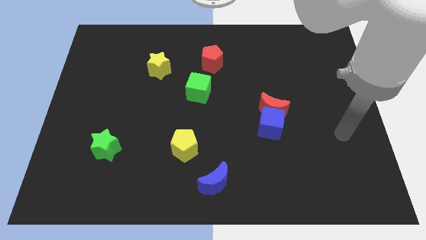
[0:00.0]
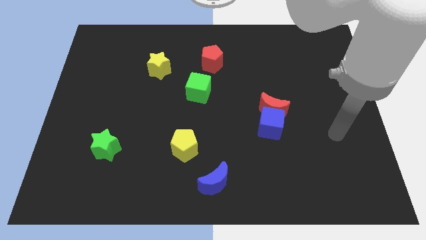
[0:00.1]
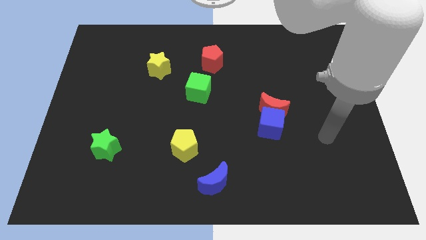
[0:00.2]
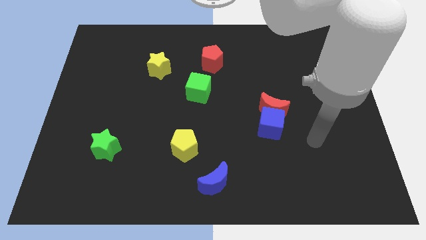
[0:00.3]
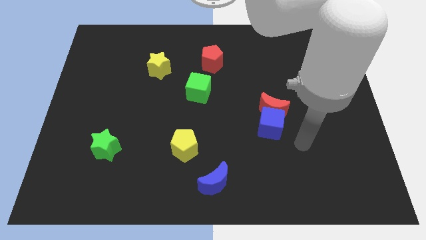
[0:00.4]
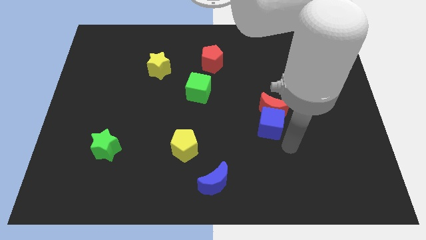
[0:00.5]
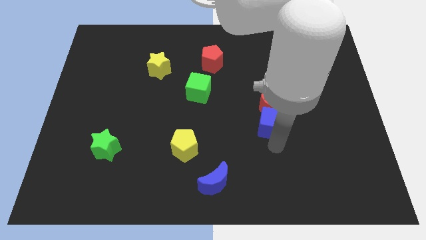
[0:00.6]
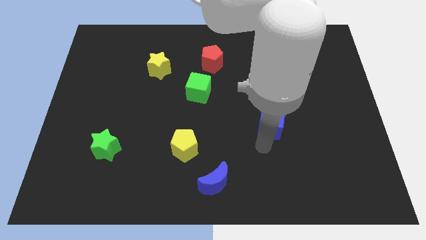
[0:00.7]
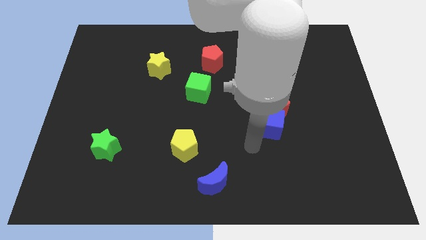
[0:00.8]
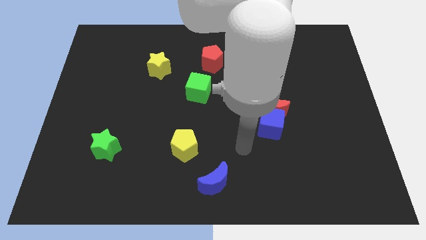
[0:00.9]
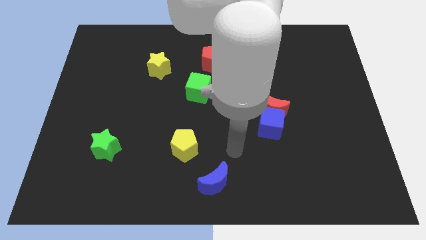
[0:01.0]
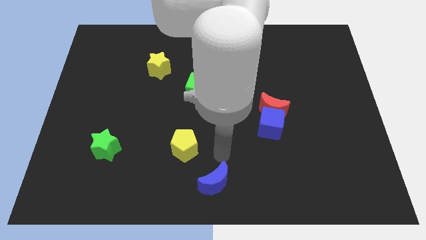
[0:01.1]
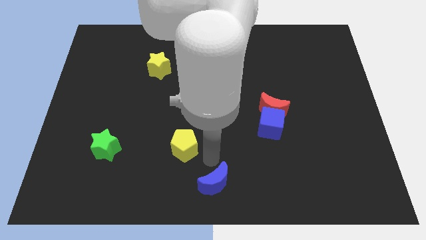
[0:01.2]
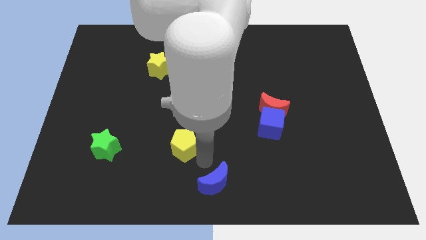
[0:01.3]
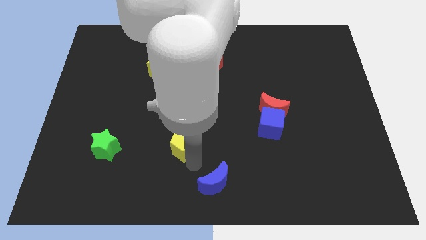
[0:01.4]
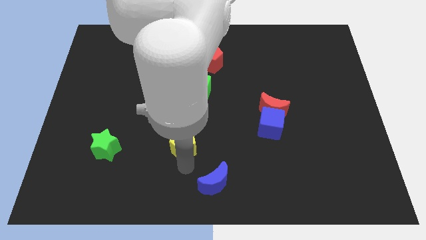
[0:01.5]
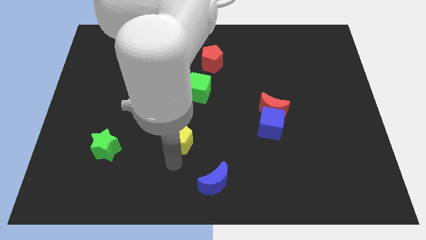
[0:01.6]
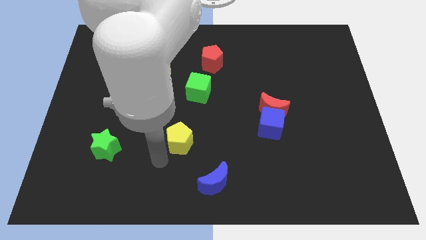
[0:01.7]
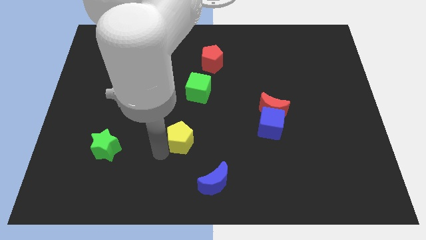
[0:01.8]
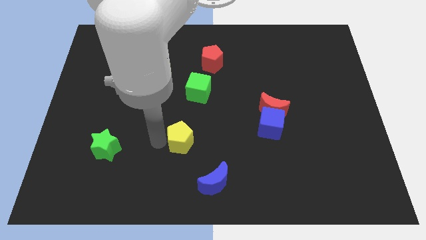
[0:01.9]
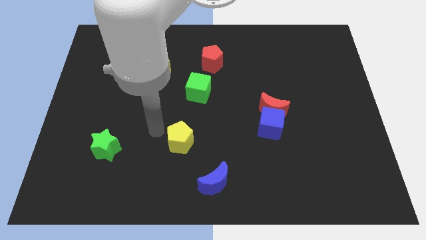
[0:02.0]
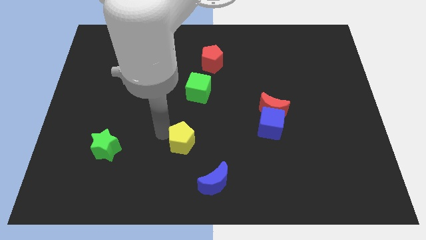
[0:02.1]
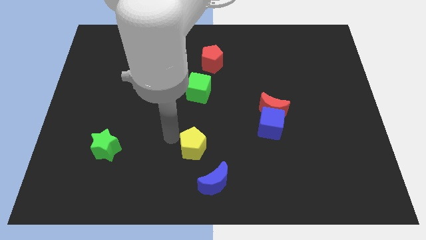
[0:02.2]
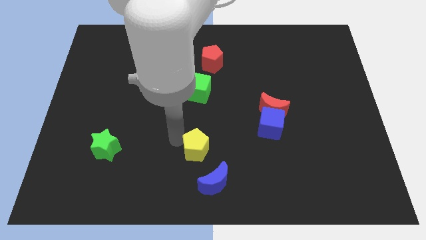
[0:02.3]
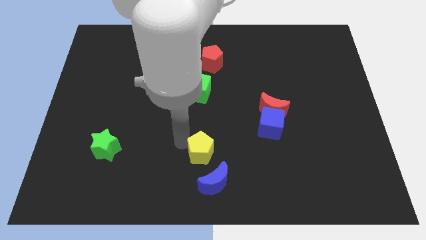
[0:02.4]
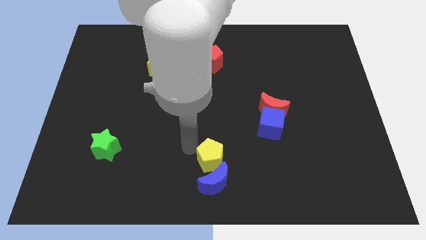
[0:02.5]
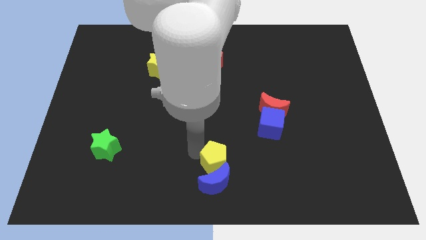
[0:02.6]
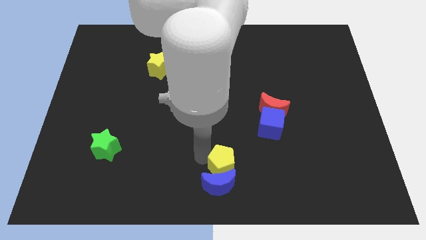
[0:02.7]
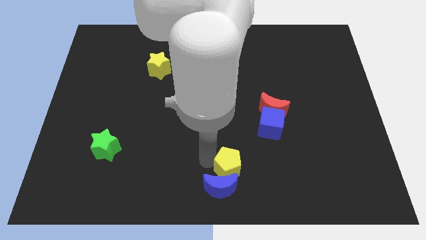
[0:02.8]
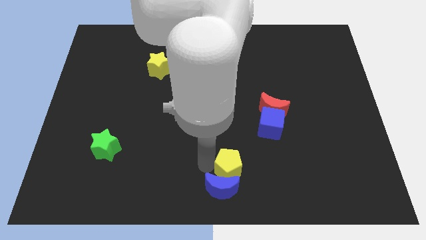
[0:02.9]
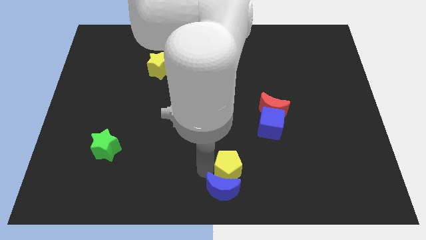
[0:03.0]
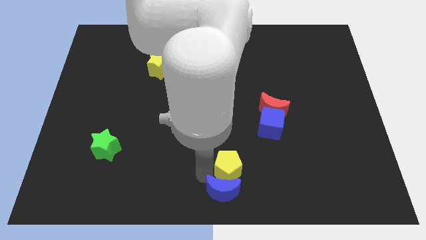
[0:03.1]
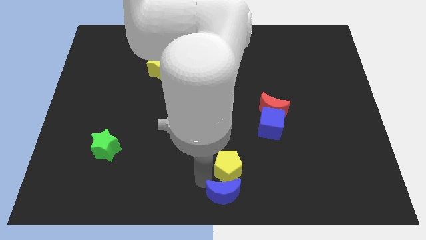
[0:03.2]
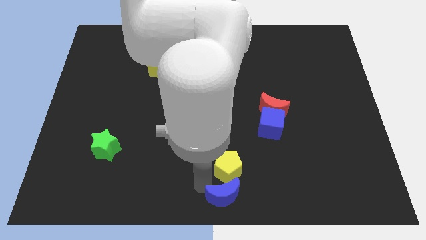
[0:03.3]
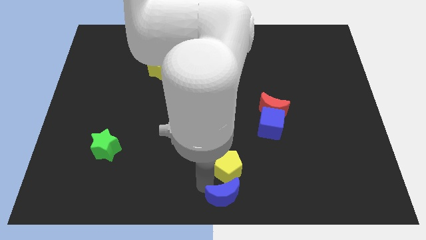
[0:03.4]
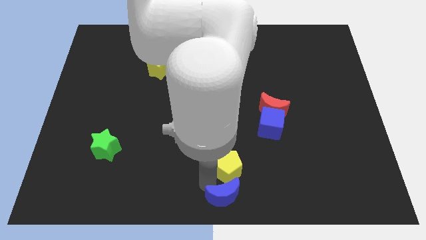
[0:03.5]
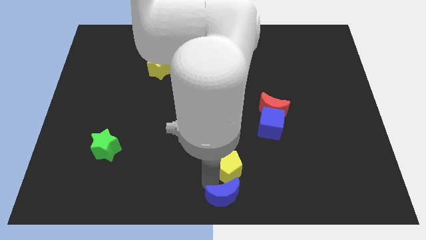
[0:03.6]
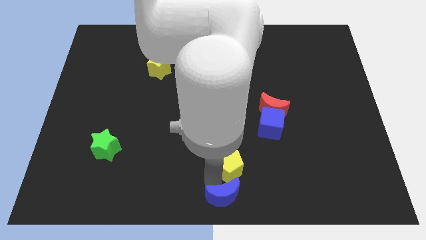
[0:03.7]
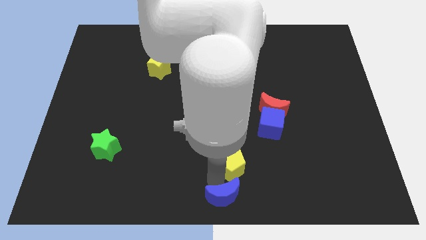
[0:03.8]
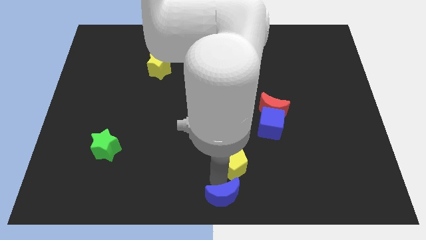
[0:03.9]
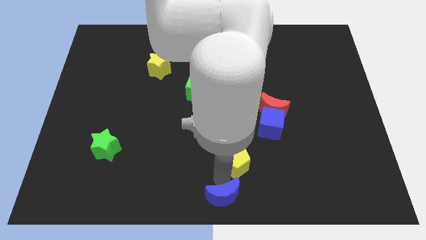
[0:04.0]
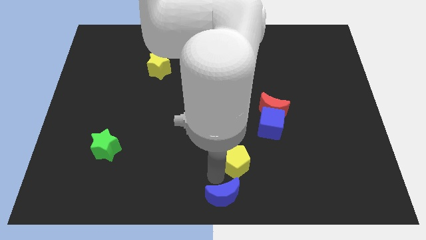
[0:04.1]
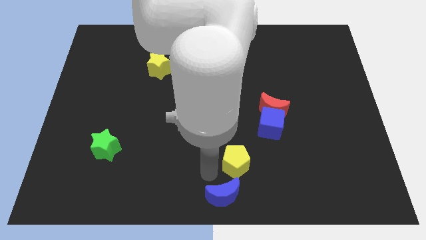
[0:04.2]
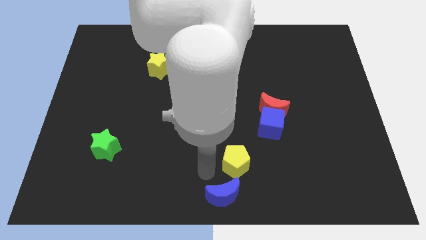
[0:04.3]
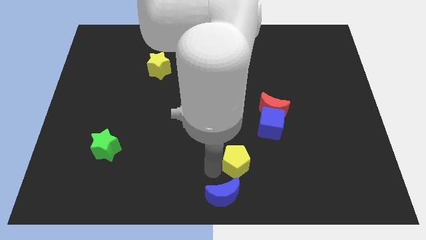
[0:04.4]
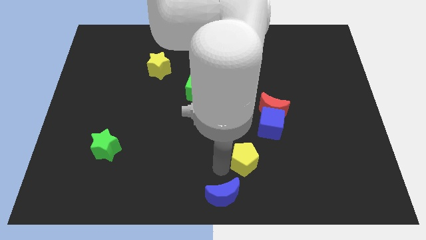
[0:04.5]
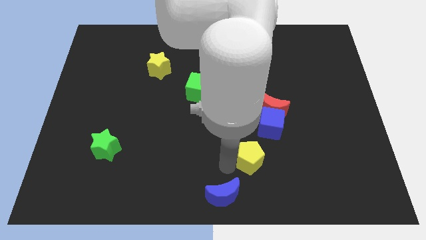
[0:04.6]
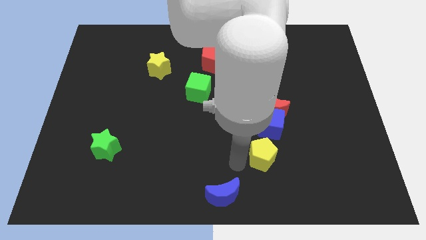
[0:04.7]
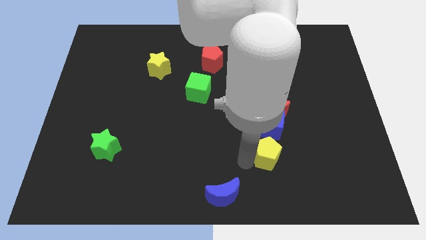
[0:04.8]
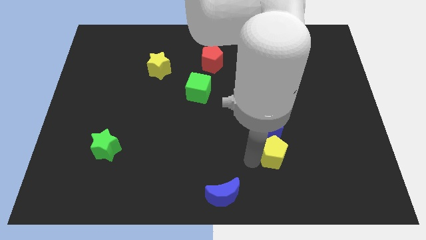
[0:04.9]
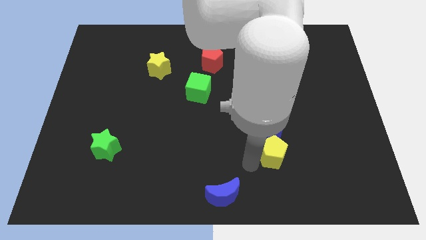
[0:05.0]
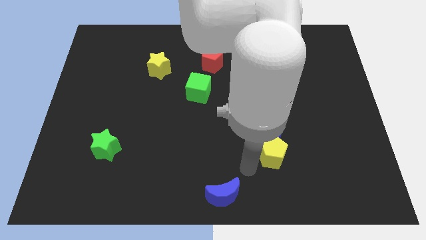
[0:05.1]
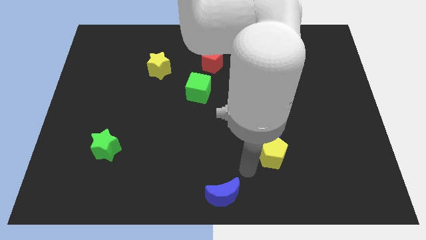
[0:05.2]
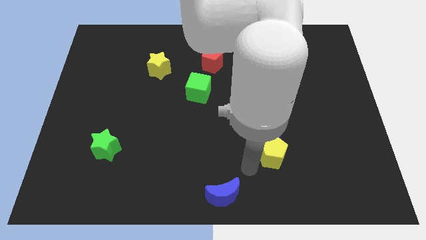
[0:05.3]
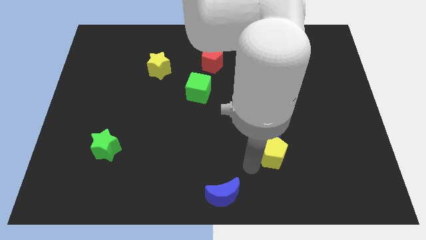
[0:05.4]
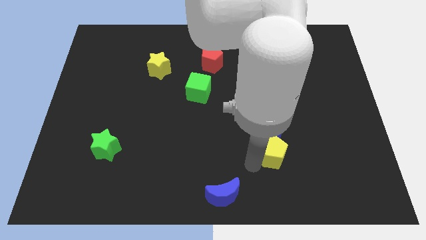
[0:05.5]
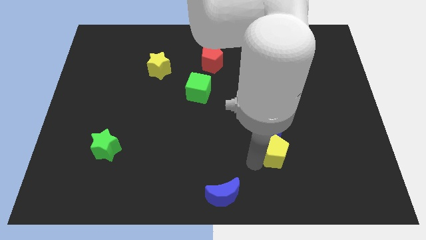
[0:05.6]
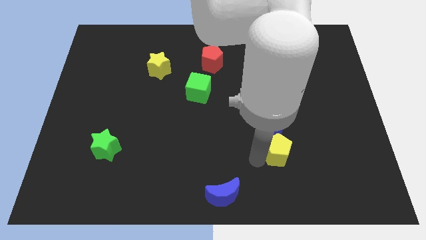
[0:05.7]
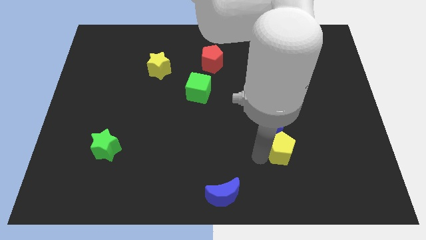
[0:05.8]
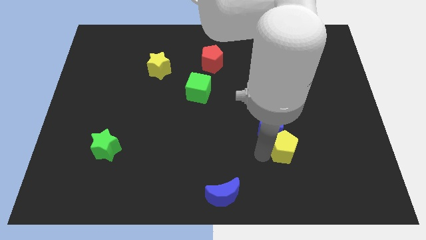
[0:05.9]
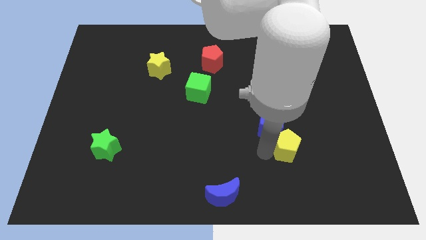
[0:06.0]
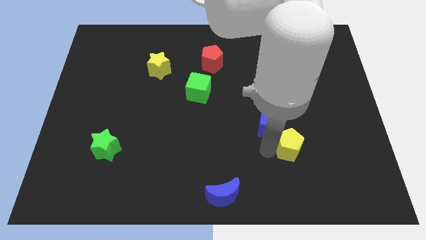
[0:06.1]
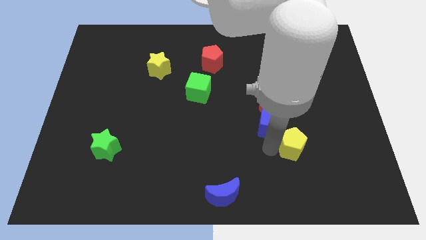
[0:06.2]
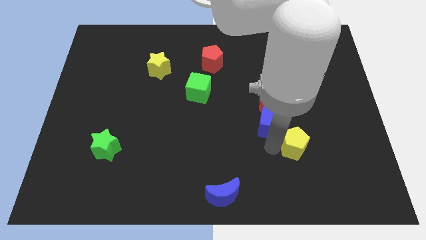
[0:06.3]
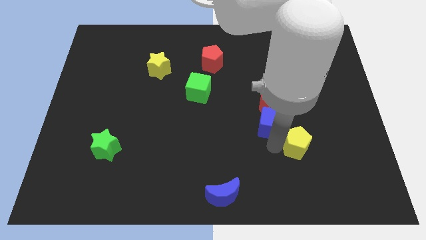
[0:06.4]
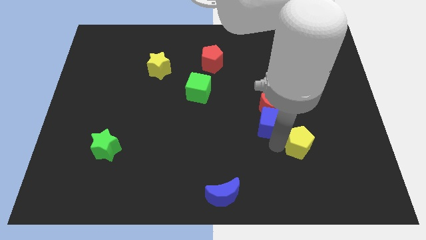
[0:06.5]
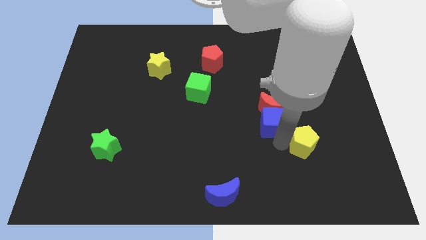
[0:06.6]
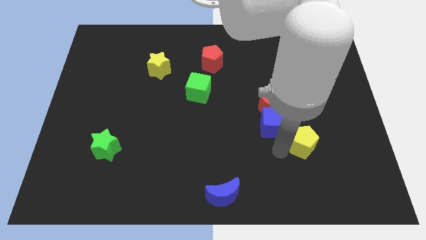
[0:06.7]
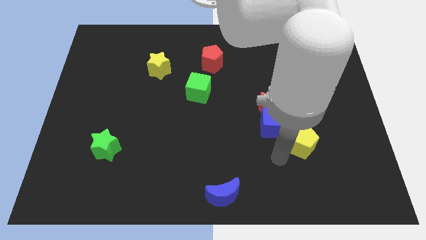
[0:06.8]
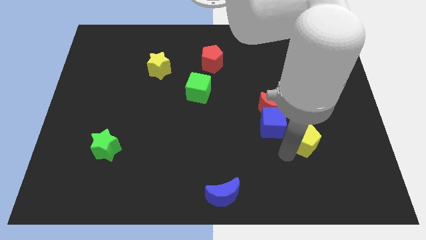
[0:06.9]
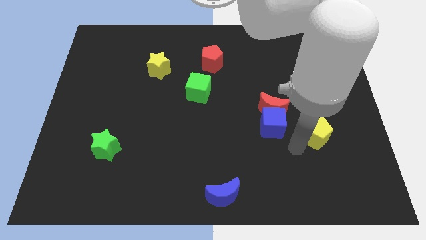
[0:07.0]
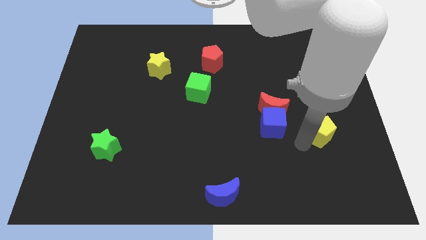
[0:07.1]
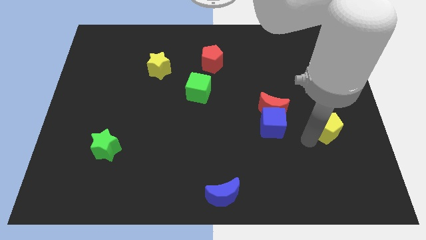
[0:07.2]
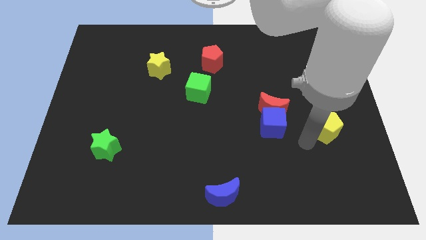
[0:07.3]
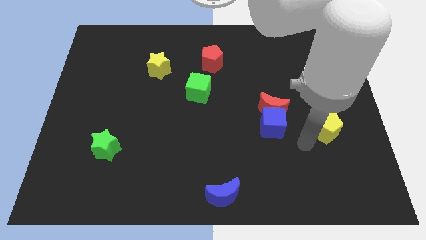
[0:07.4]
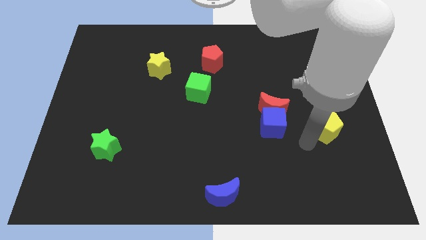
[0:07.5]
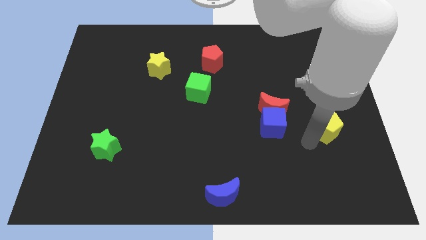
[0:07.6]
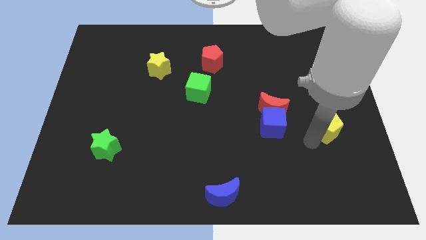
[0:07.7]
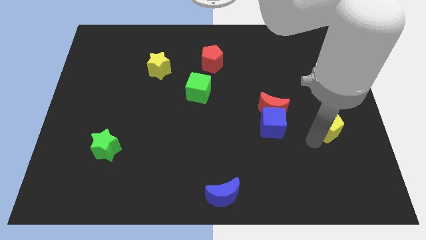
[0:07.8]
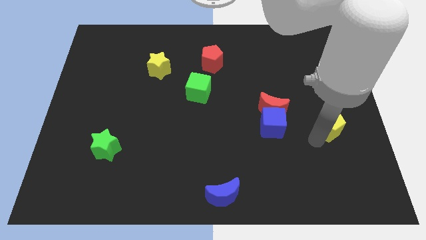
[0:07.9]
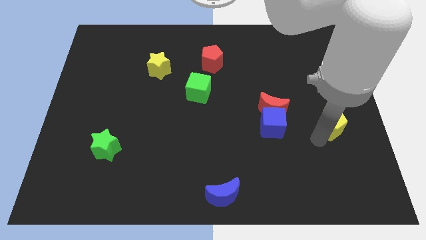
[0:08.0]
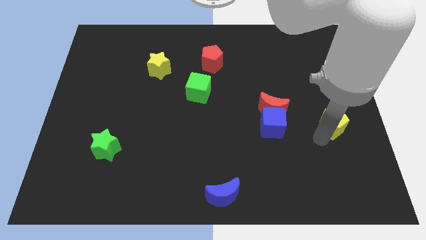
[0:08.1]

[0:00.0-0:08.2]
push the yellow pentagon to the right side of the board
